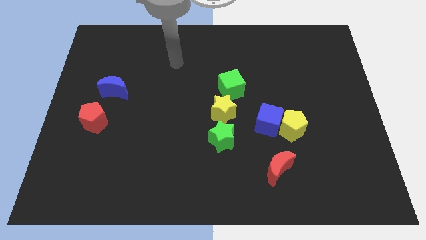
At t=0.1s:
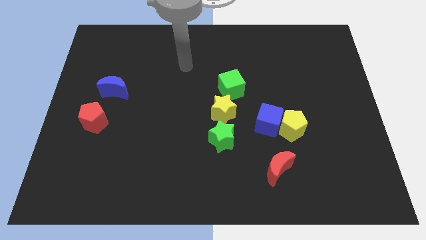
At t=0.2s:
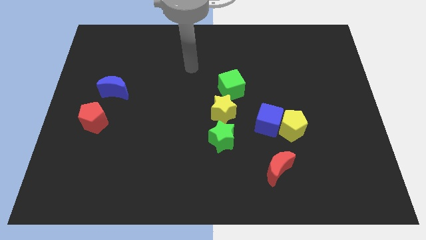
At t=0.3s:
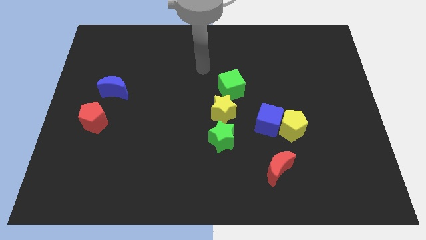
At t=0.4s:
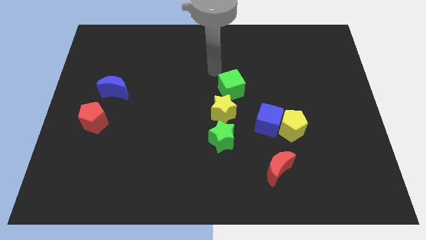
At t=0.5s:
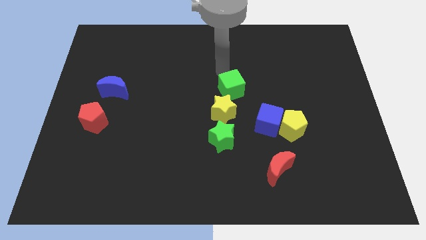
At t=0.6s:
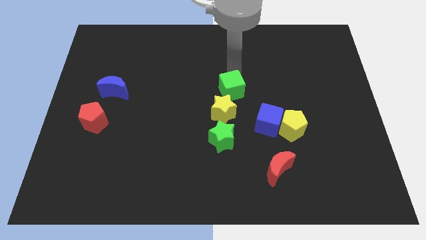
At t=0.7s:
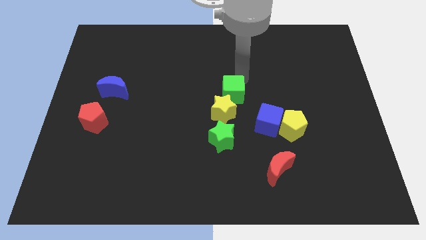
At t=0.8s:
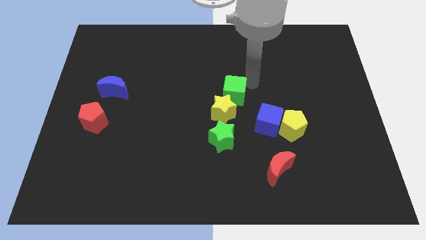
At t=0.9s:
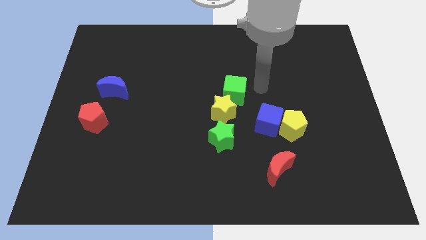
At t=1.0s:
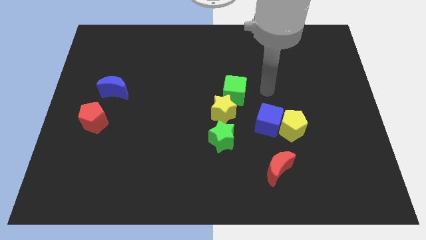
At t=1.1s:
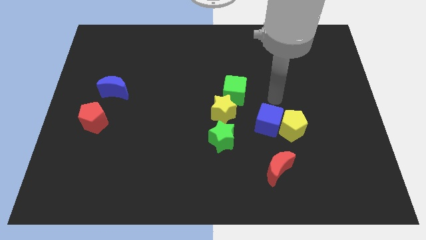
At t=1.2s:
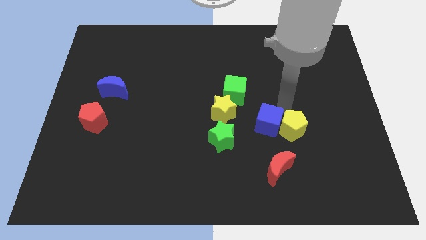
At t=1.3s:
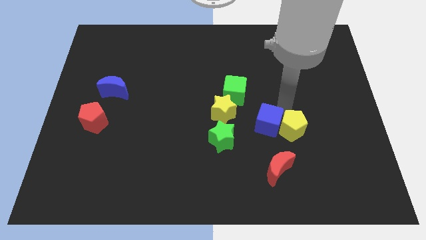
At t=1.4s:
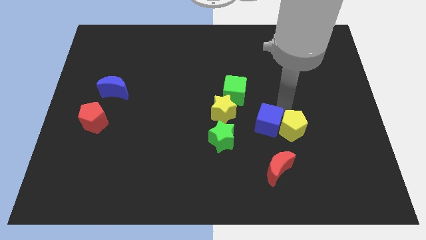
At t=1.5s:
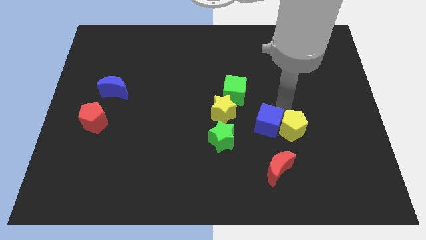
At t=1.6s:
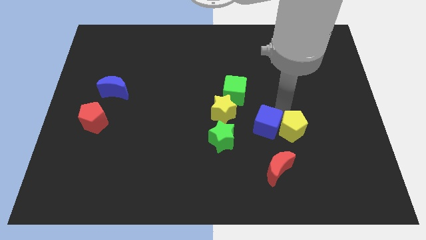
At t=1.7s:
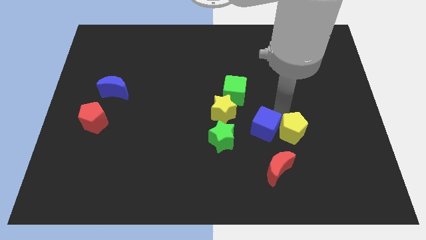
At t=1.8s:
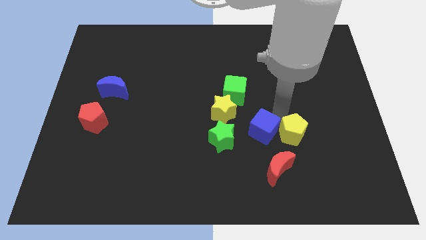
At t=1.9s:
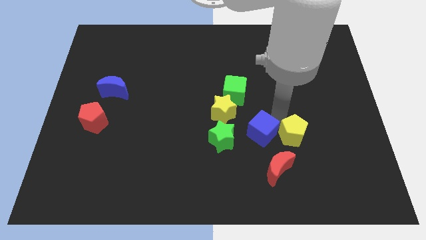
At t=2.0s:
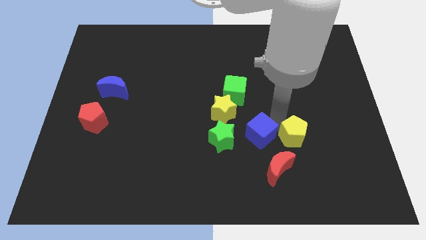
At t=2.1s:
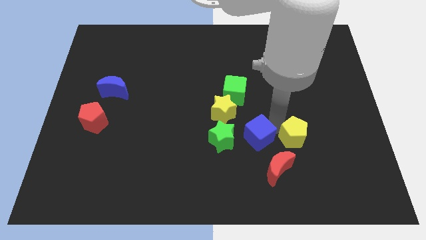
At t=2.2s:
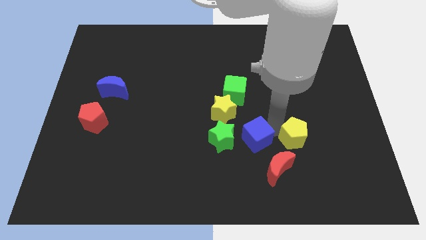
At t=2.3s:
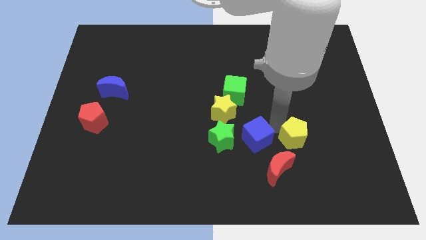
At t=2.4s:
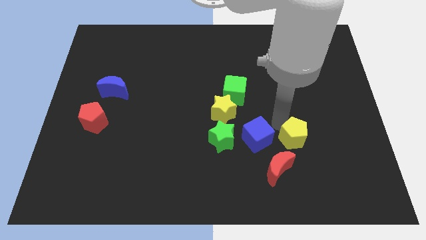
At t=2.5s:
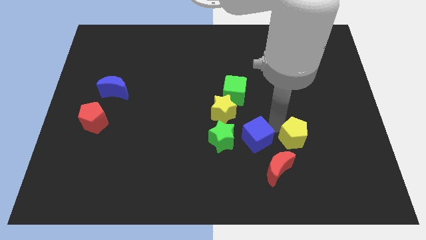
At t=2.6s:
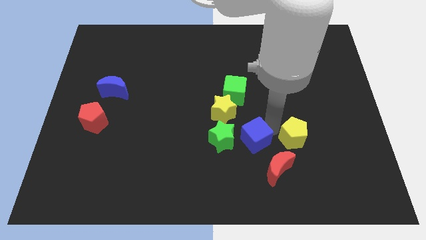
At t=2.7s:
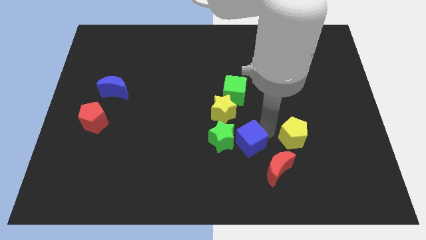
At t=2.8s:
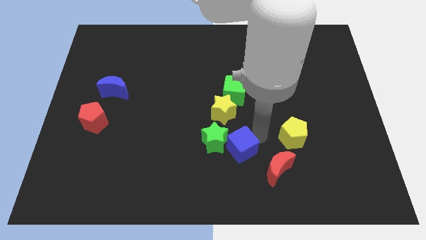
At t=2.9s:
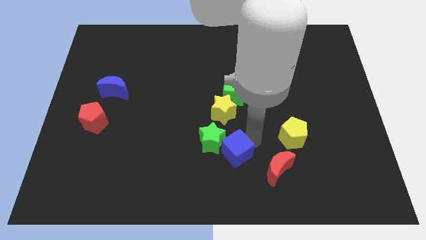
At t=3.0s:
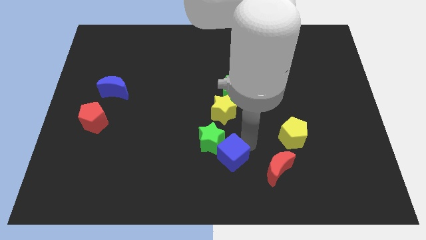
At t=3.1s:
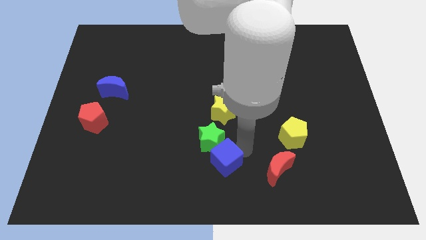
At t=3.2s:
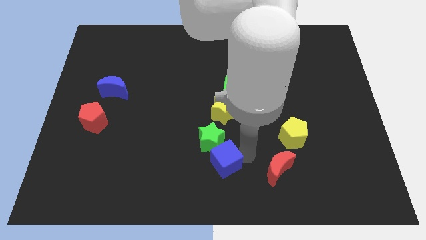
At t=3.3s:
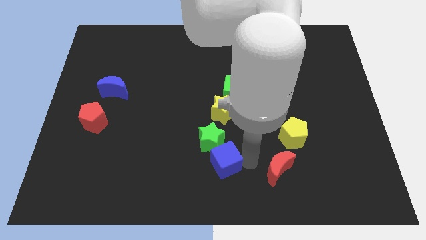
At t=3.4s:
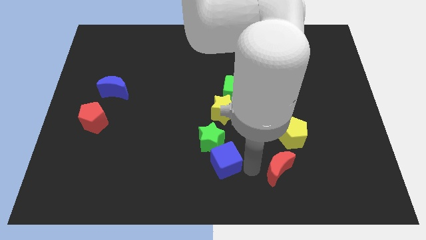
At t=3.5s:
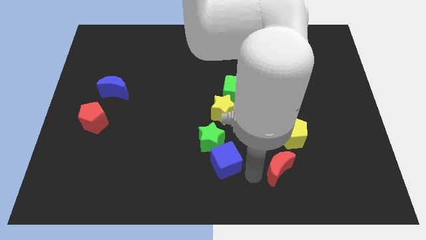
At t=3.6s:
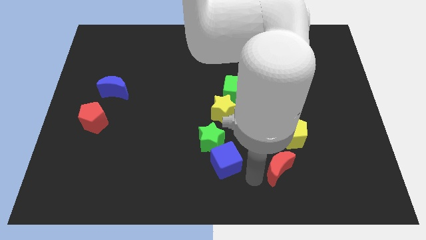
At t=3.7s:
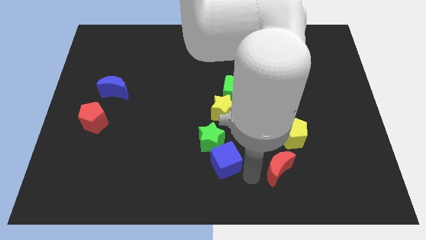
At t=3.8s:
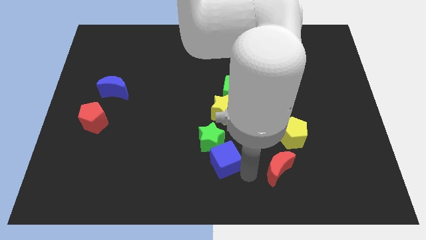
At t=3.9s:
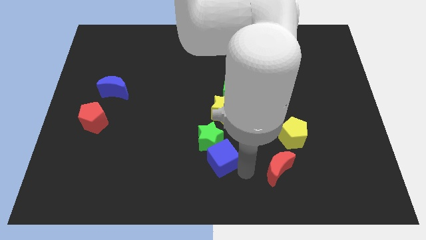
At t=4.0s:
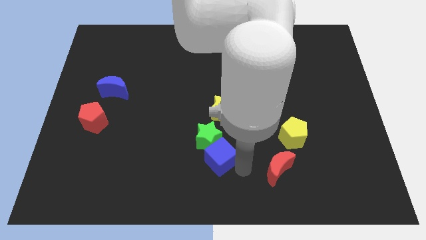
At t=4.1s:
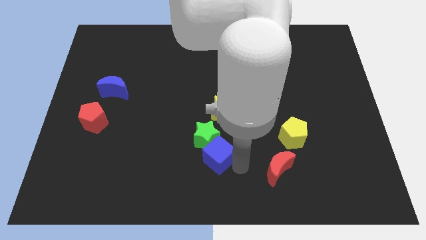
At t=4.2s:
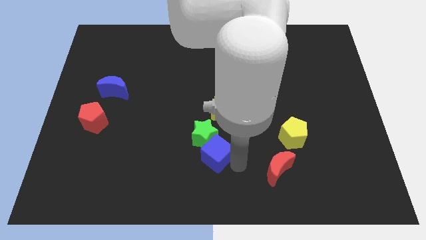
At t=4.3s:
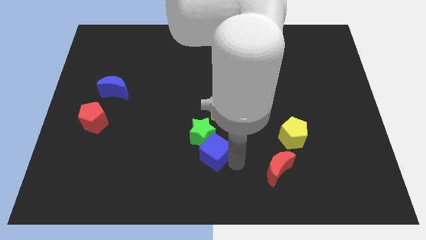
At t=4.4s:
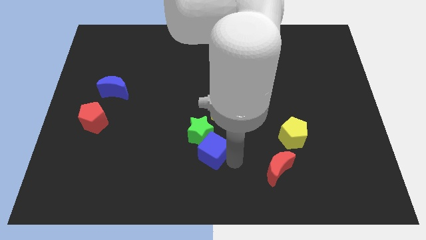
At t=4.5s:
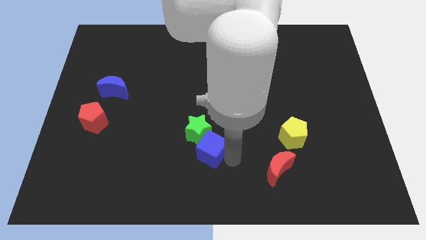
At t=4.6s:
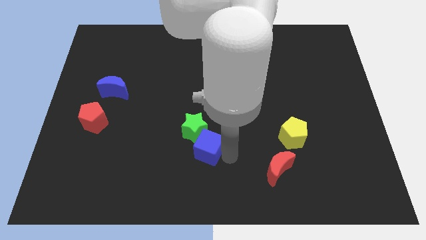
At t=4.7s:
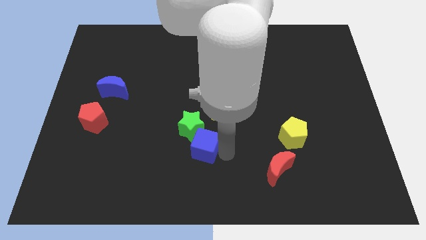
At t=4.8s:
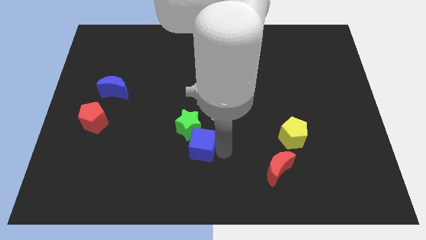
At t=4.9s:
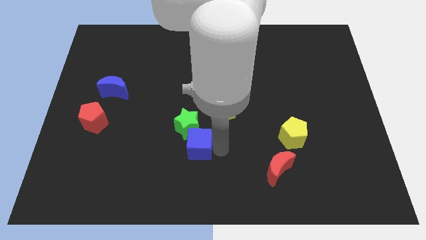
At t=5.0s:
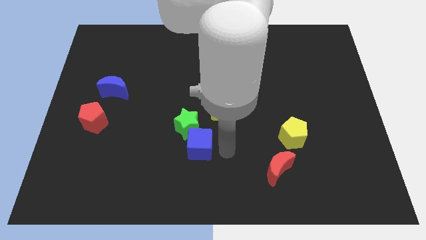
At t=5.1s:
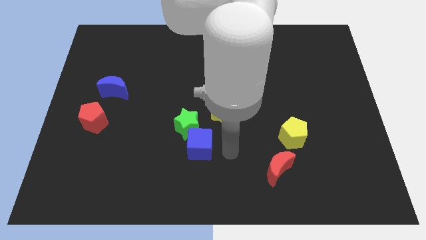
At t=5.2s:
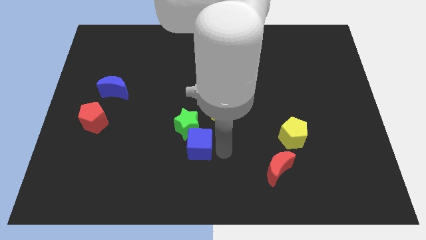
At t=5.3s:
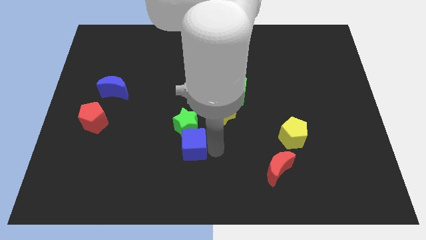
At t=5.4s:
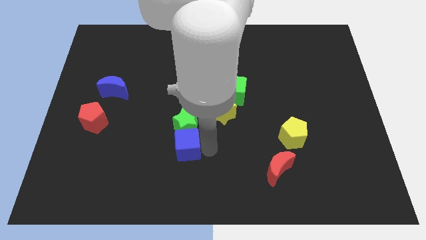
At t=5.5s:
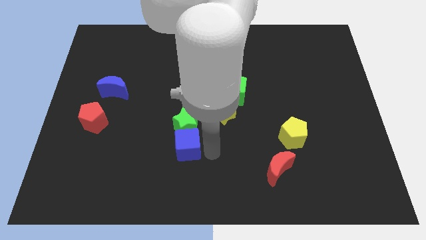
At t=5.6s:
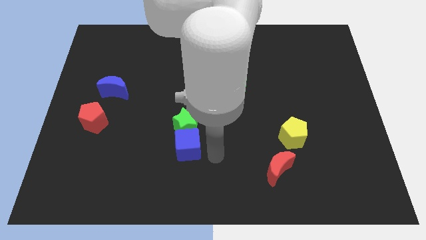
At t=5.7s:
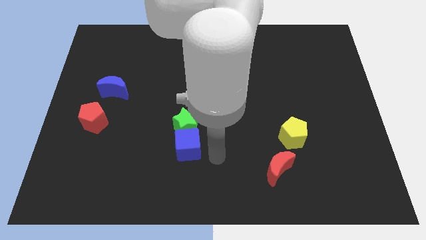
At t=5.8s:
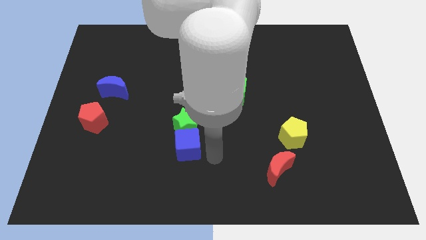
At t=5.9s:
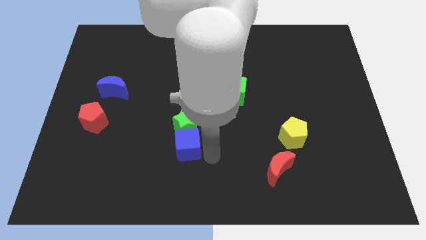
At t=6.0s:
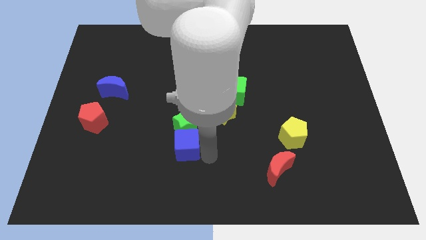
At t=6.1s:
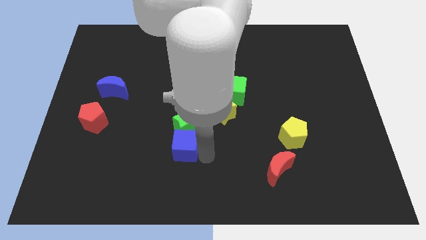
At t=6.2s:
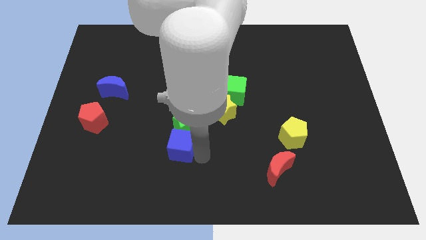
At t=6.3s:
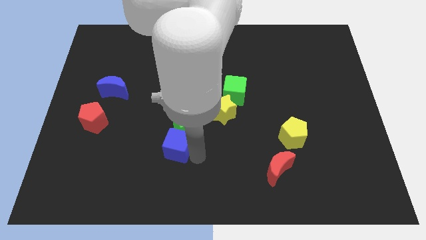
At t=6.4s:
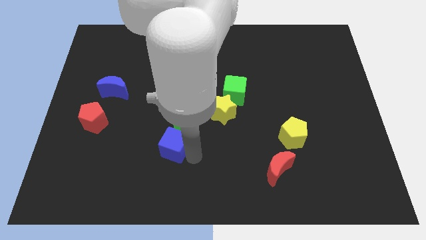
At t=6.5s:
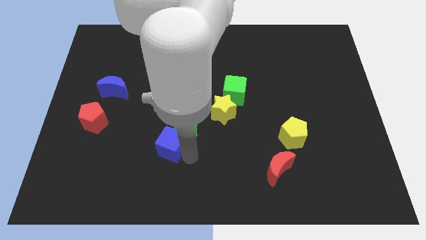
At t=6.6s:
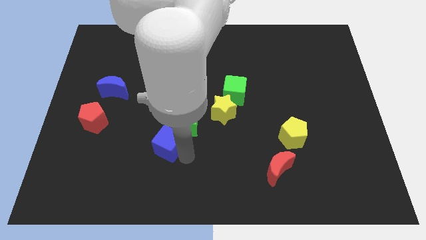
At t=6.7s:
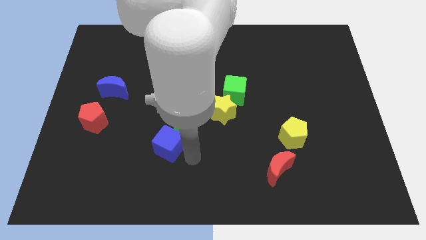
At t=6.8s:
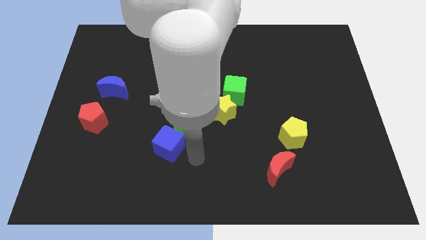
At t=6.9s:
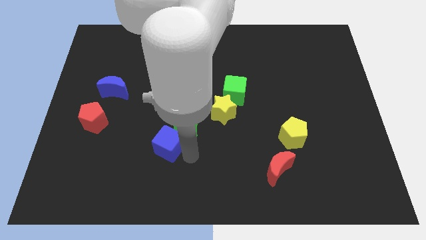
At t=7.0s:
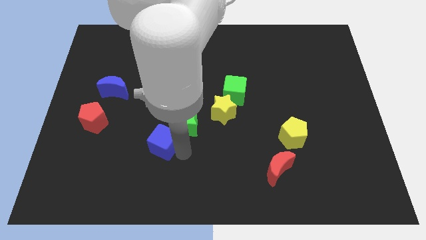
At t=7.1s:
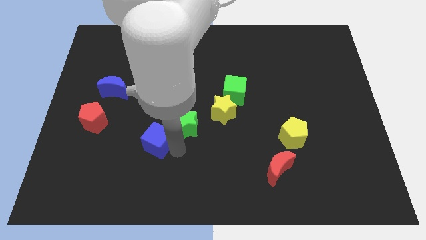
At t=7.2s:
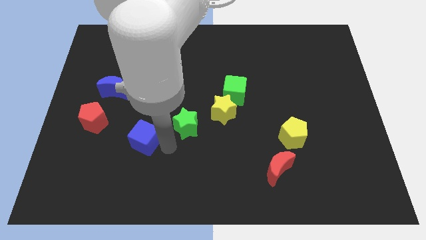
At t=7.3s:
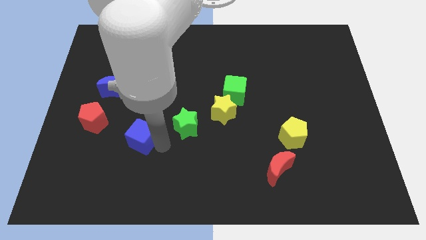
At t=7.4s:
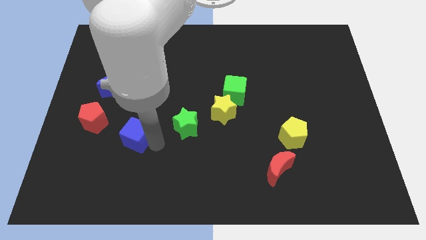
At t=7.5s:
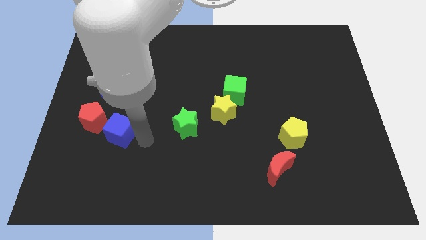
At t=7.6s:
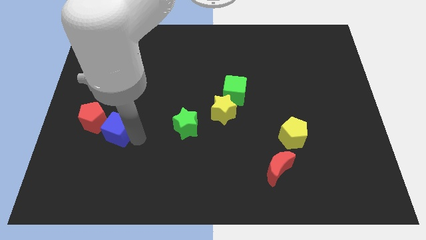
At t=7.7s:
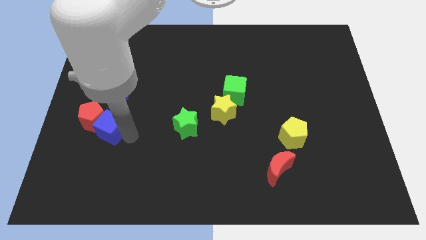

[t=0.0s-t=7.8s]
put the blue cube towards the red pentagon
